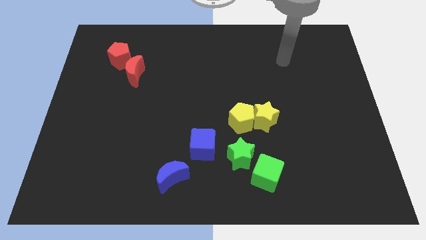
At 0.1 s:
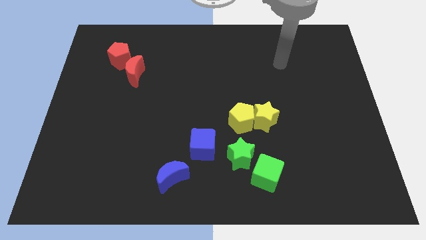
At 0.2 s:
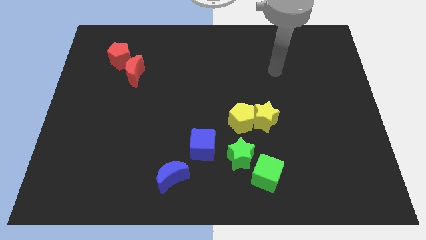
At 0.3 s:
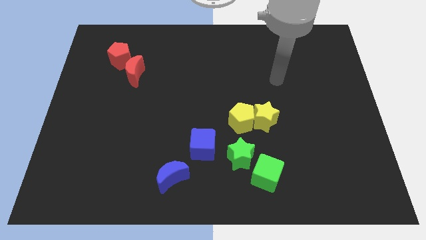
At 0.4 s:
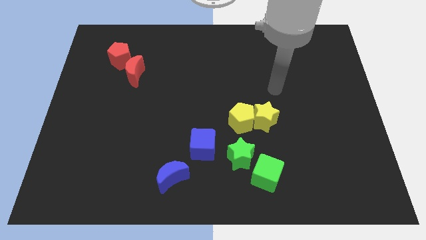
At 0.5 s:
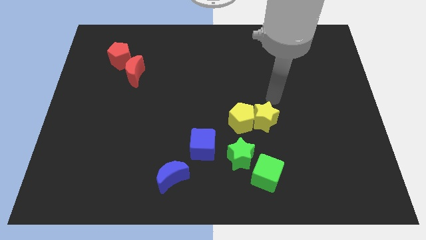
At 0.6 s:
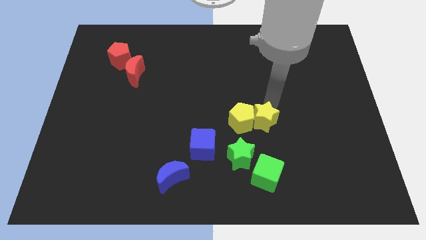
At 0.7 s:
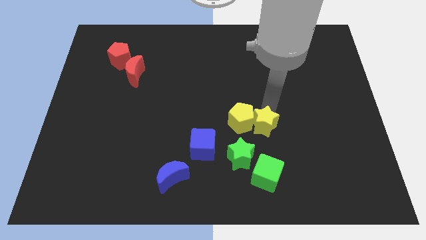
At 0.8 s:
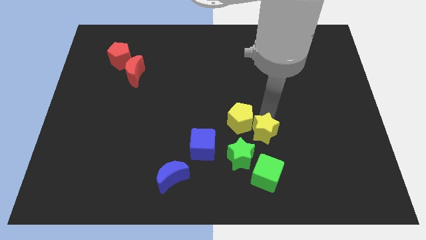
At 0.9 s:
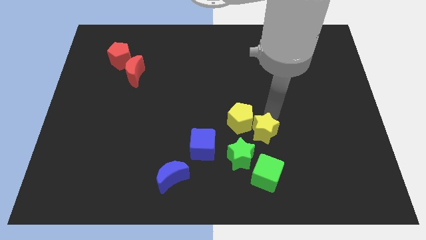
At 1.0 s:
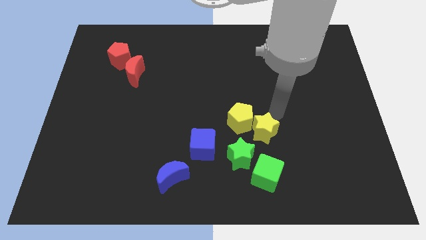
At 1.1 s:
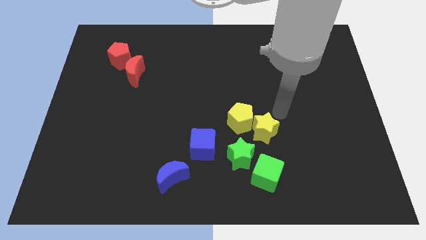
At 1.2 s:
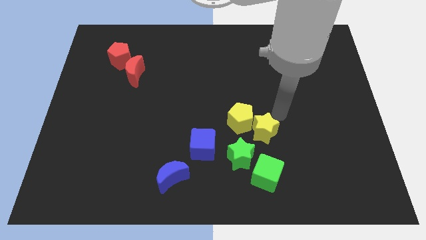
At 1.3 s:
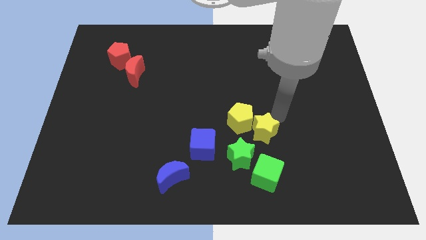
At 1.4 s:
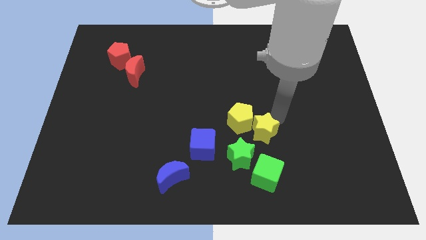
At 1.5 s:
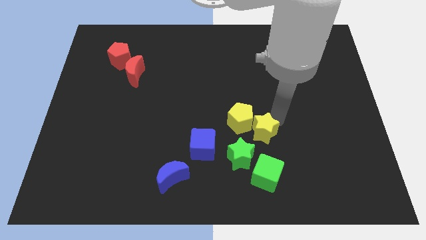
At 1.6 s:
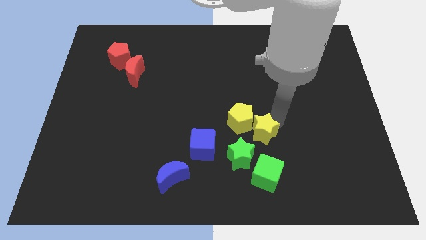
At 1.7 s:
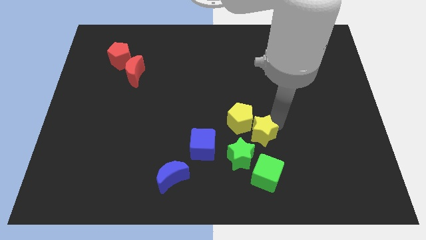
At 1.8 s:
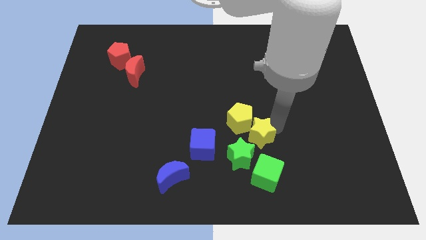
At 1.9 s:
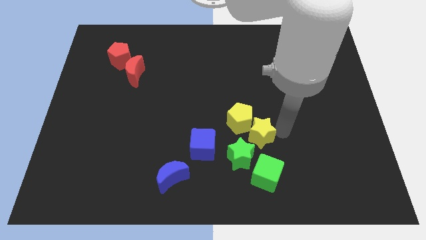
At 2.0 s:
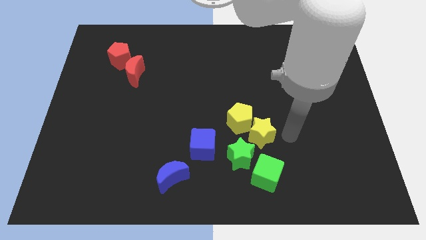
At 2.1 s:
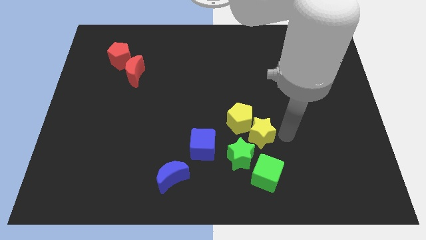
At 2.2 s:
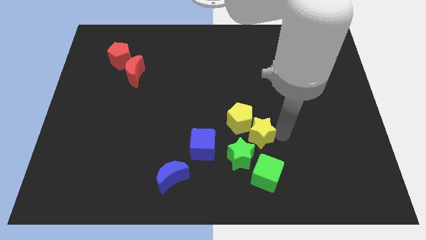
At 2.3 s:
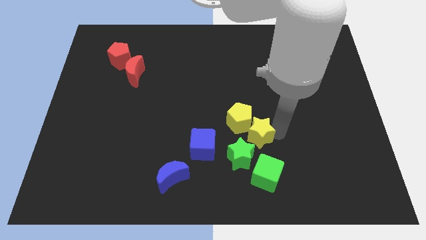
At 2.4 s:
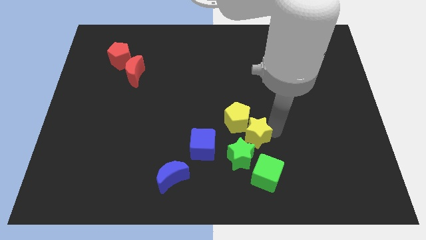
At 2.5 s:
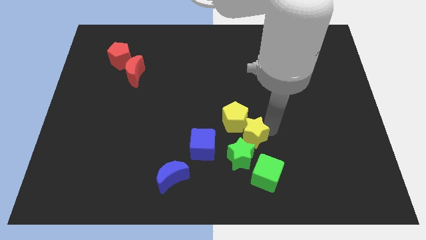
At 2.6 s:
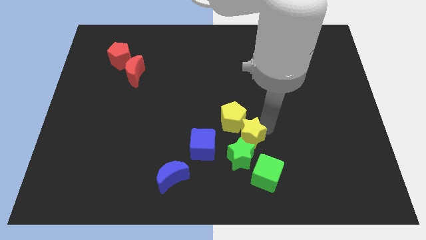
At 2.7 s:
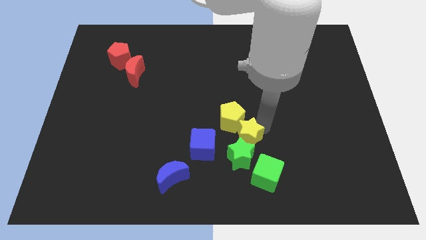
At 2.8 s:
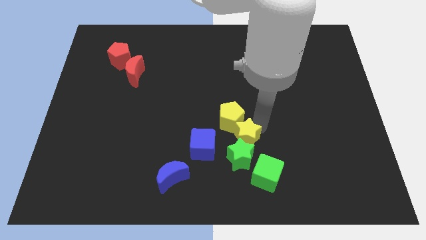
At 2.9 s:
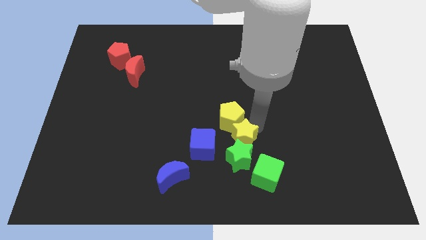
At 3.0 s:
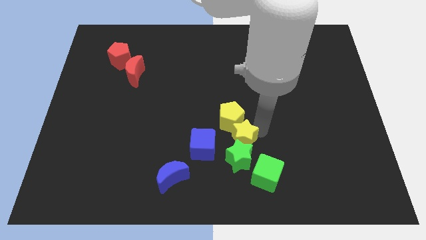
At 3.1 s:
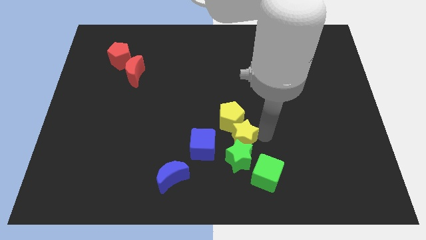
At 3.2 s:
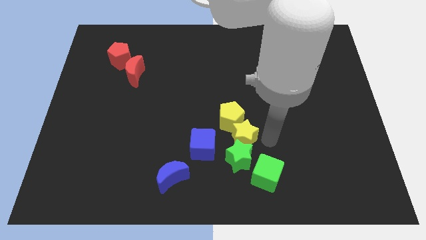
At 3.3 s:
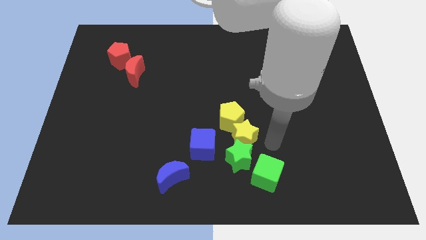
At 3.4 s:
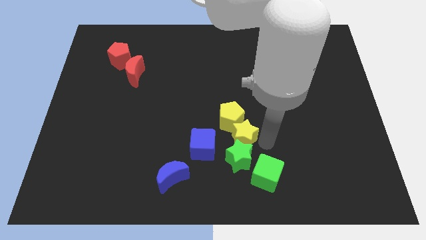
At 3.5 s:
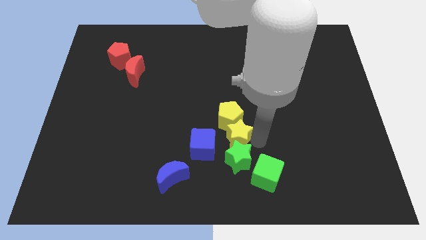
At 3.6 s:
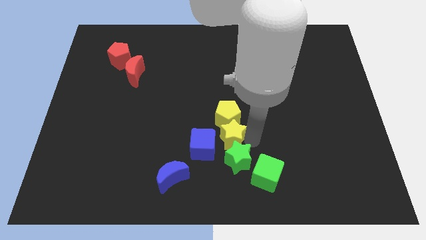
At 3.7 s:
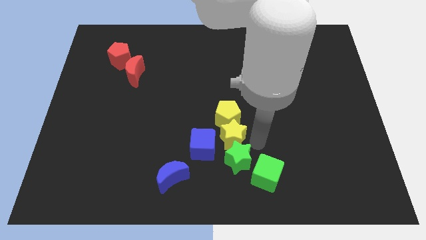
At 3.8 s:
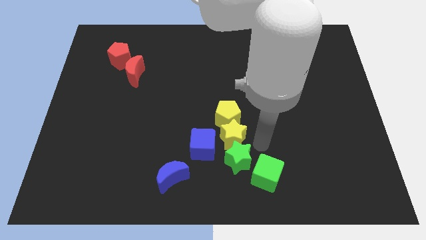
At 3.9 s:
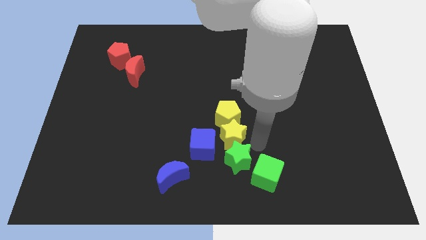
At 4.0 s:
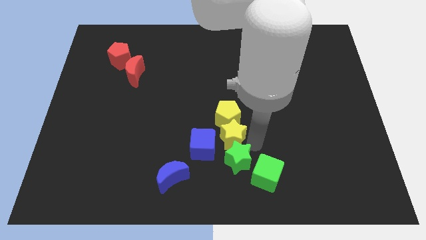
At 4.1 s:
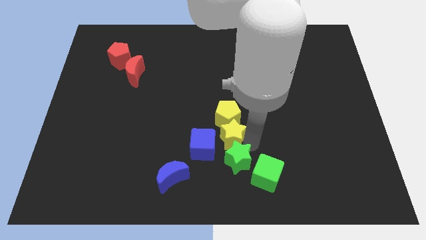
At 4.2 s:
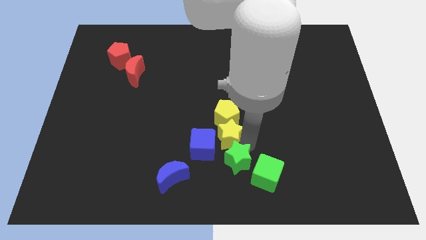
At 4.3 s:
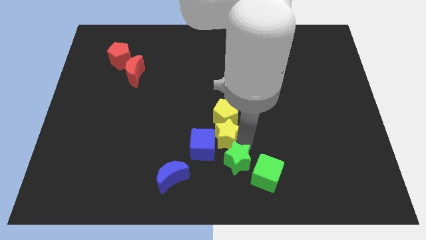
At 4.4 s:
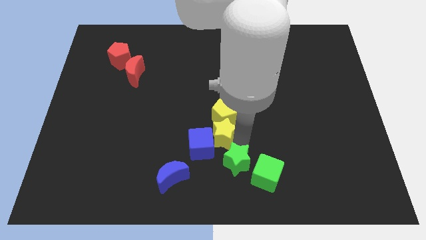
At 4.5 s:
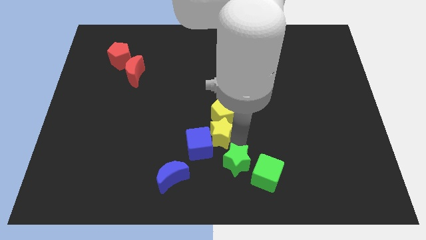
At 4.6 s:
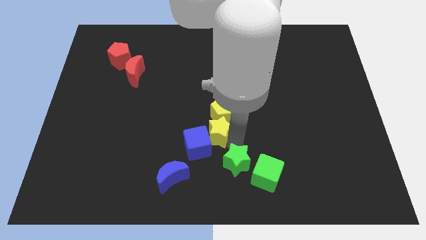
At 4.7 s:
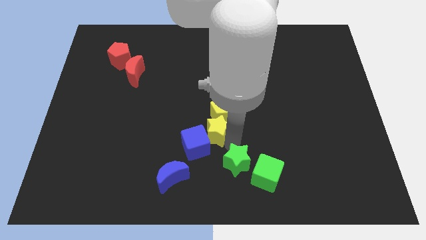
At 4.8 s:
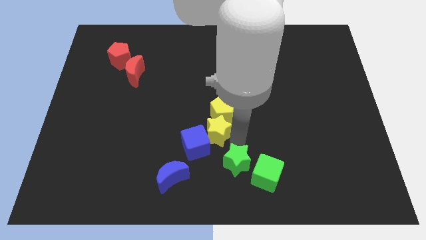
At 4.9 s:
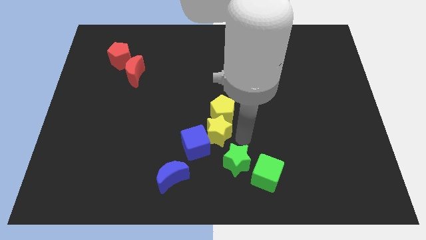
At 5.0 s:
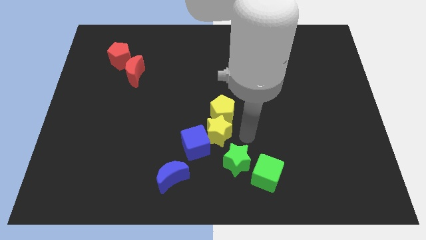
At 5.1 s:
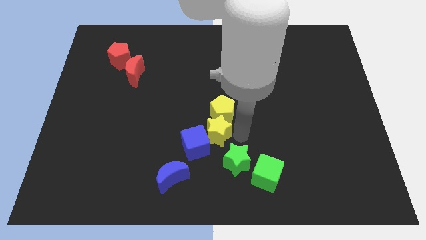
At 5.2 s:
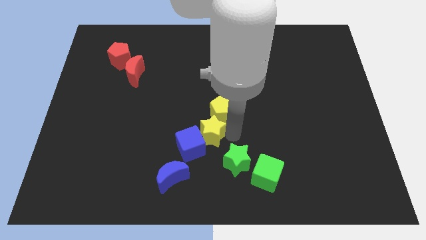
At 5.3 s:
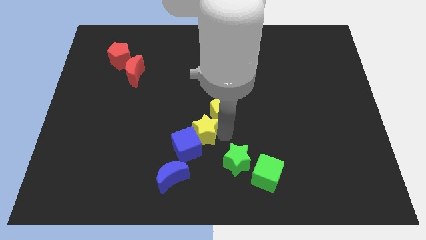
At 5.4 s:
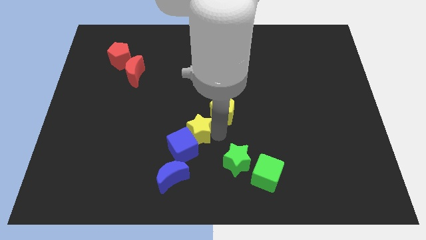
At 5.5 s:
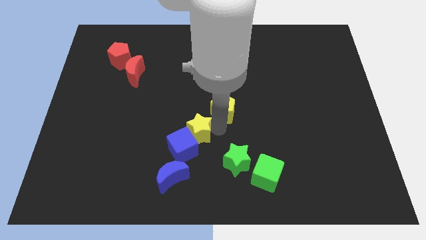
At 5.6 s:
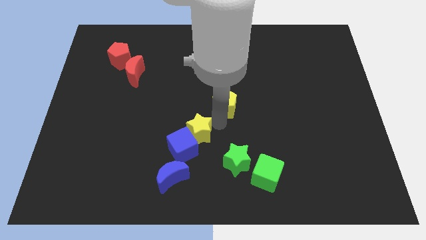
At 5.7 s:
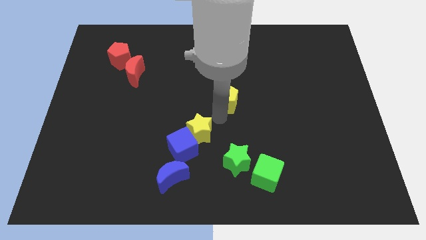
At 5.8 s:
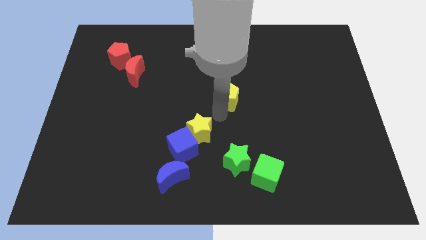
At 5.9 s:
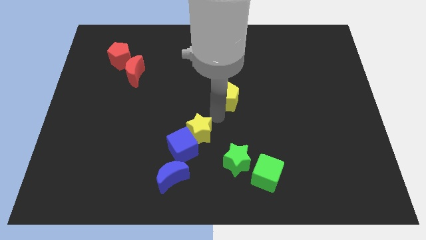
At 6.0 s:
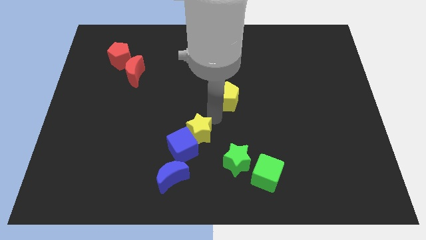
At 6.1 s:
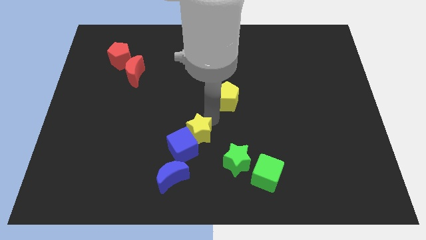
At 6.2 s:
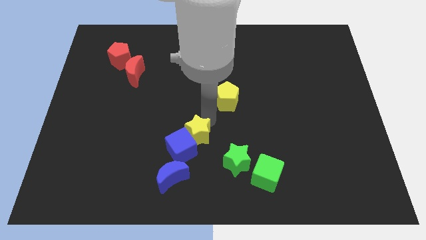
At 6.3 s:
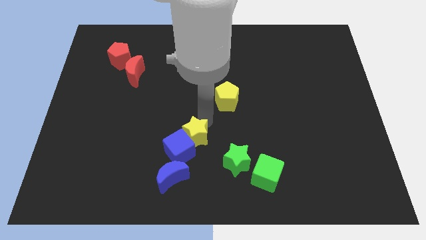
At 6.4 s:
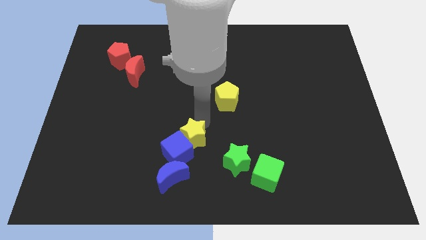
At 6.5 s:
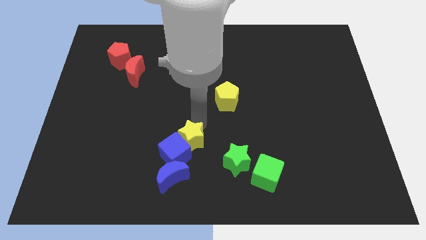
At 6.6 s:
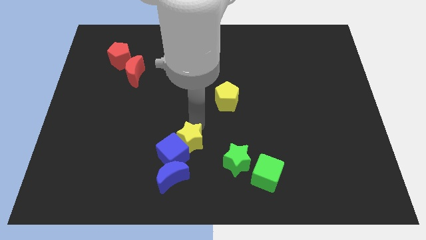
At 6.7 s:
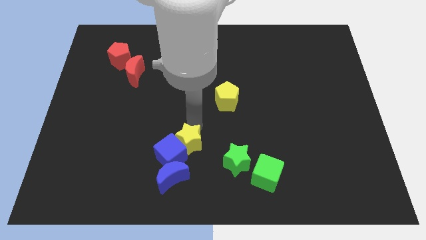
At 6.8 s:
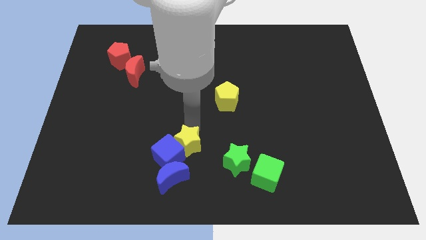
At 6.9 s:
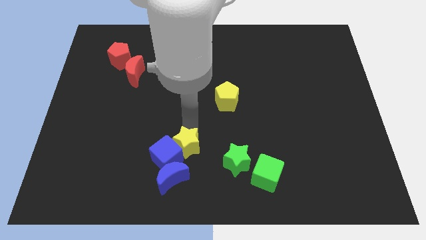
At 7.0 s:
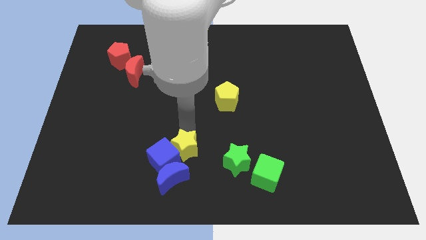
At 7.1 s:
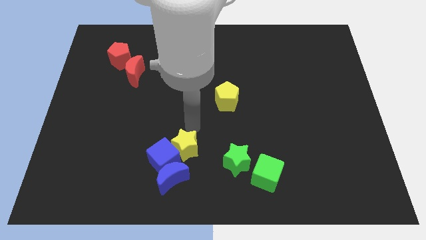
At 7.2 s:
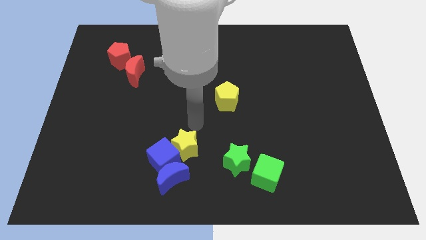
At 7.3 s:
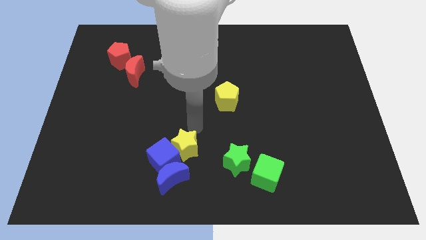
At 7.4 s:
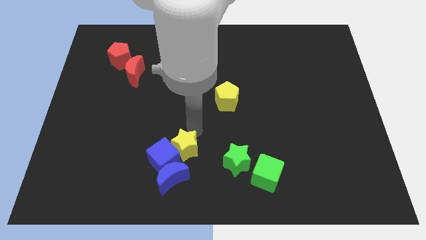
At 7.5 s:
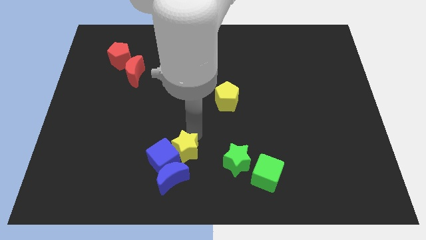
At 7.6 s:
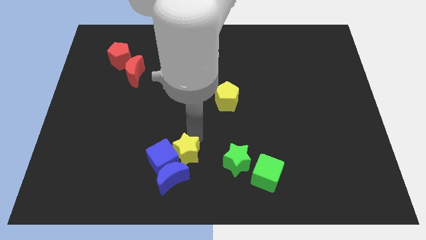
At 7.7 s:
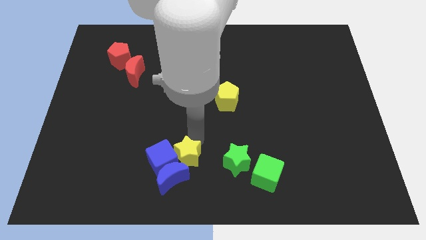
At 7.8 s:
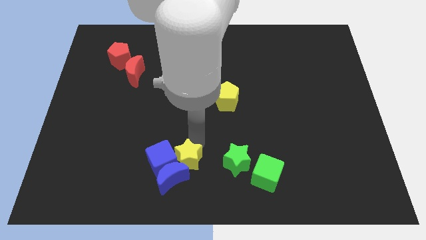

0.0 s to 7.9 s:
push the yellow star next to the blue moon
